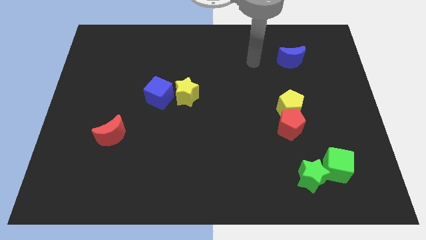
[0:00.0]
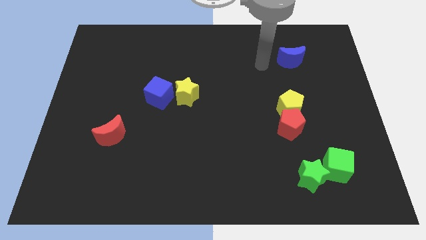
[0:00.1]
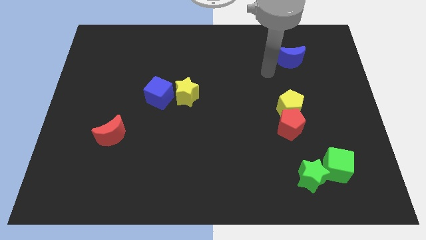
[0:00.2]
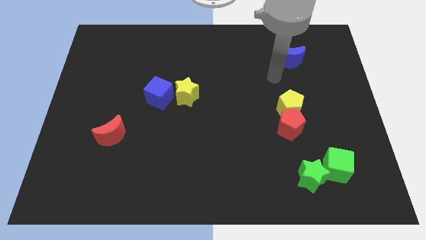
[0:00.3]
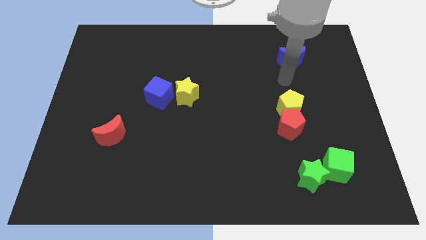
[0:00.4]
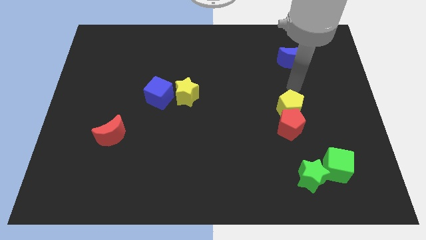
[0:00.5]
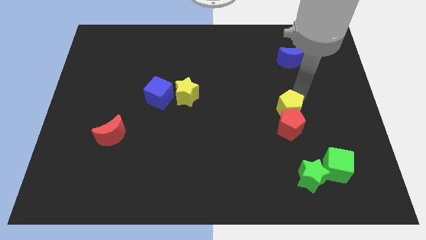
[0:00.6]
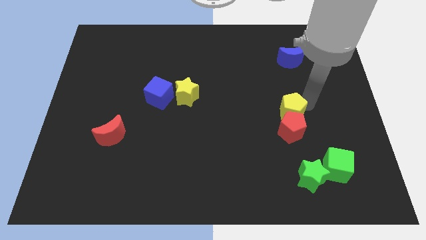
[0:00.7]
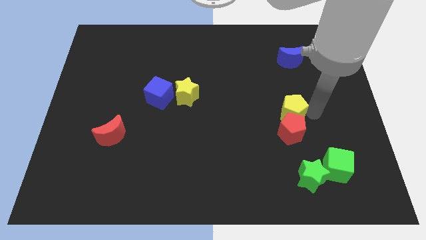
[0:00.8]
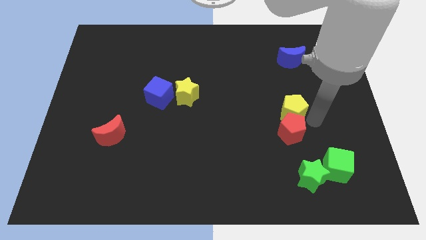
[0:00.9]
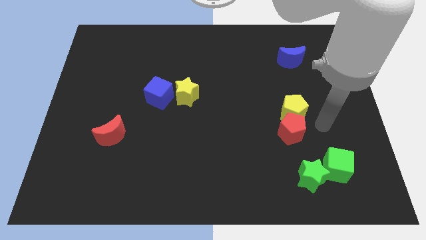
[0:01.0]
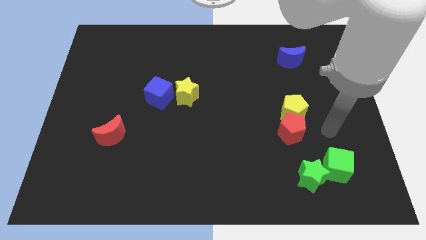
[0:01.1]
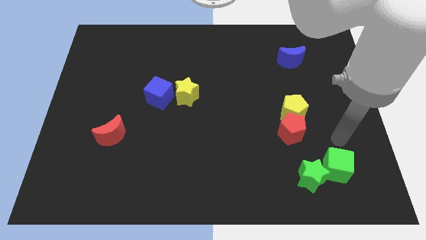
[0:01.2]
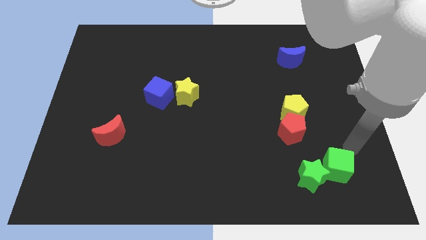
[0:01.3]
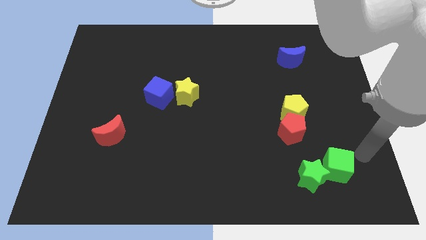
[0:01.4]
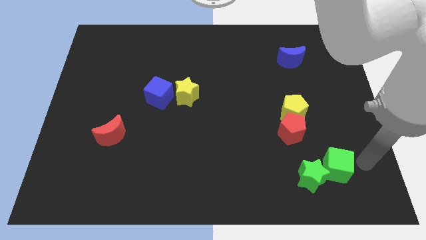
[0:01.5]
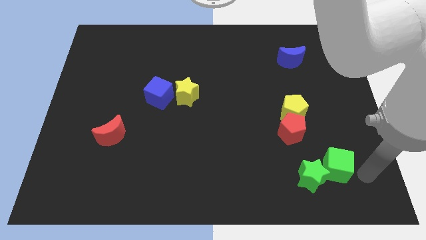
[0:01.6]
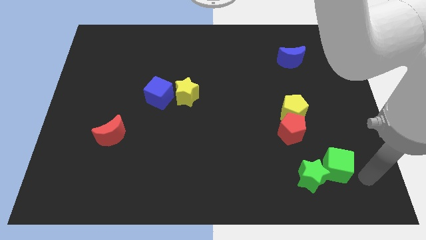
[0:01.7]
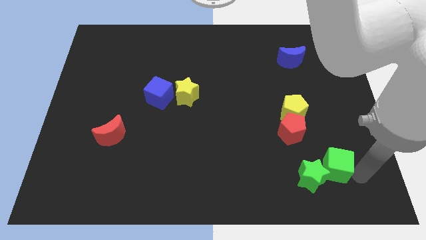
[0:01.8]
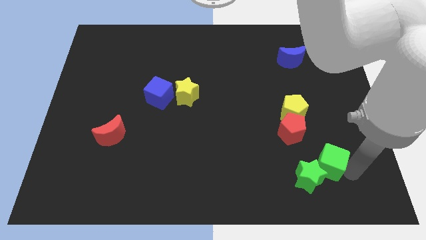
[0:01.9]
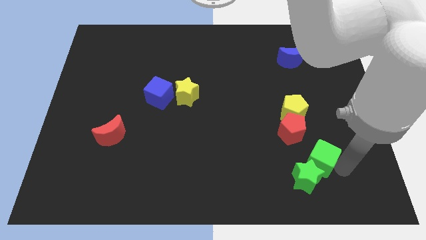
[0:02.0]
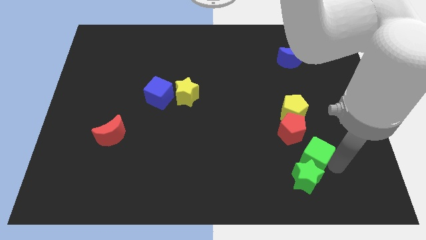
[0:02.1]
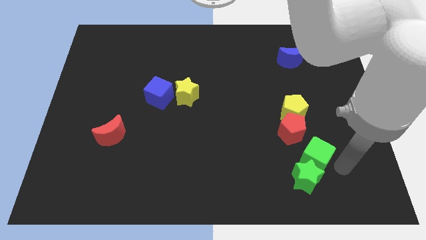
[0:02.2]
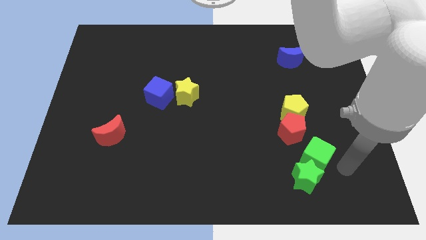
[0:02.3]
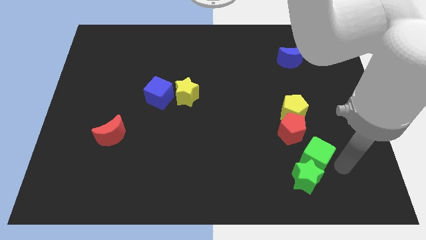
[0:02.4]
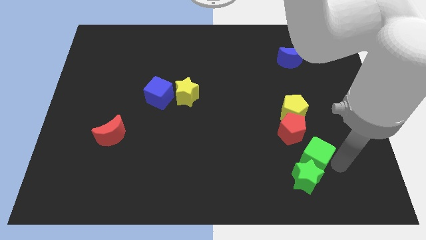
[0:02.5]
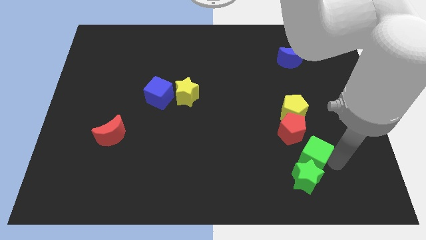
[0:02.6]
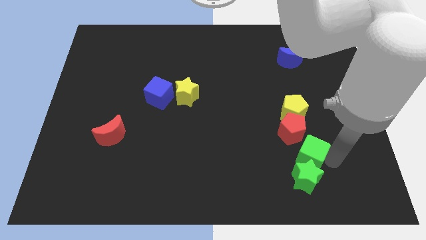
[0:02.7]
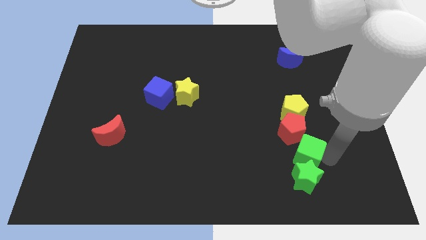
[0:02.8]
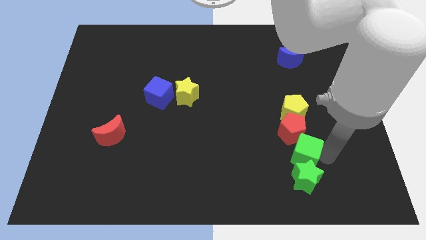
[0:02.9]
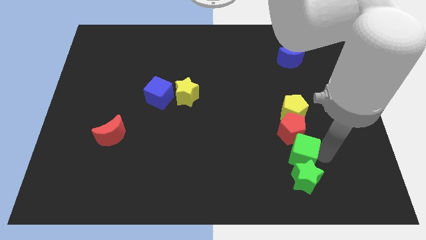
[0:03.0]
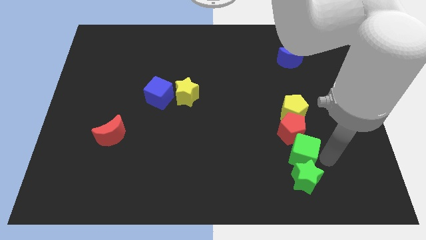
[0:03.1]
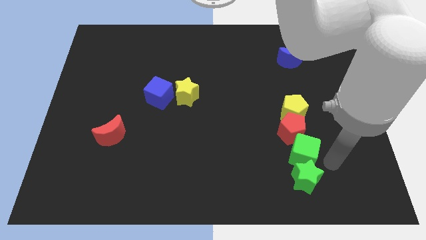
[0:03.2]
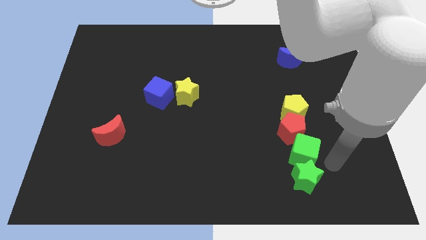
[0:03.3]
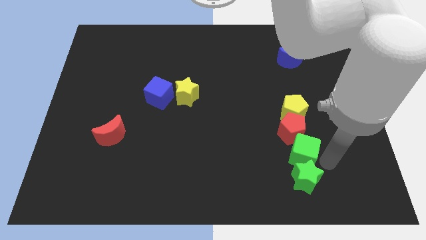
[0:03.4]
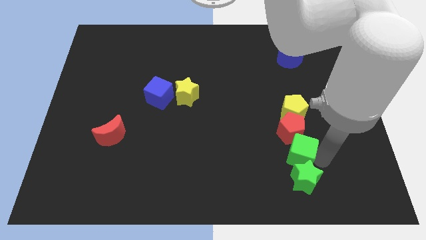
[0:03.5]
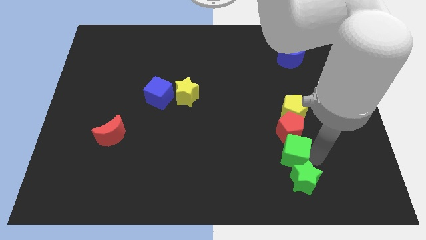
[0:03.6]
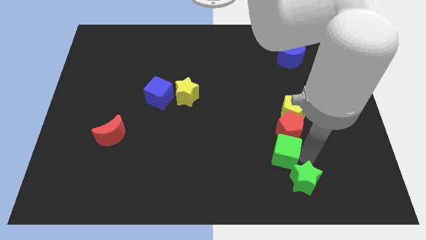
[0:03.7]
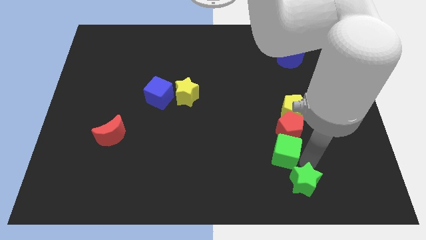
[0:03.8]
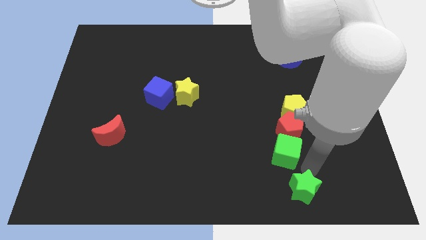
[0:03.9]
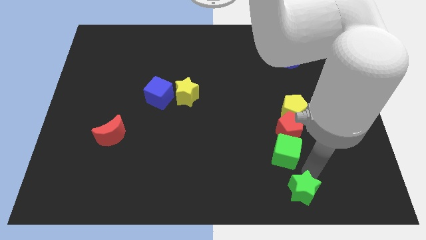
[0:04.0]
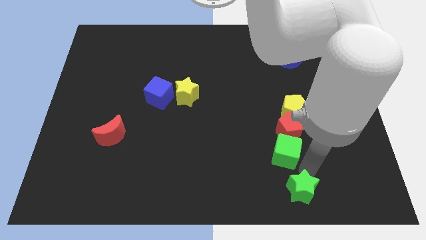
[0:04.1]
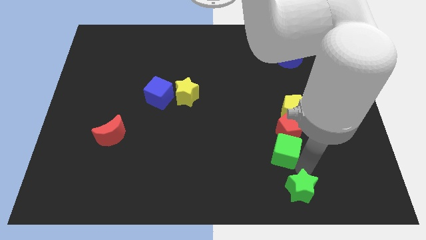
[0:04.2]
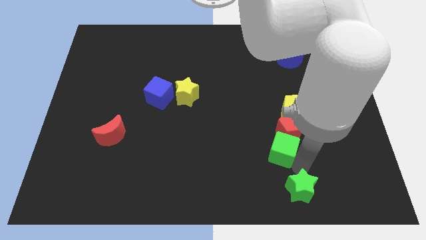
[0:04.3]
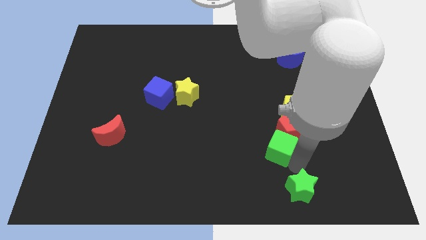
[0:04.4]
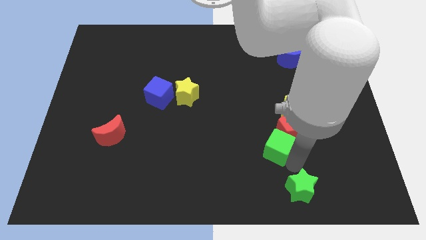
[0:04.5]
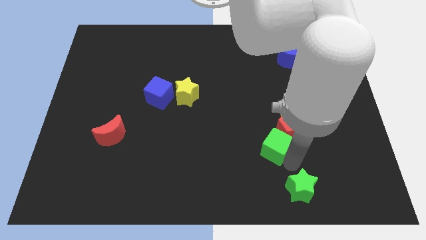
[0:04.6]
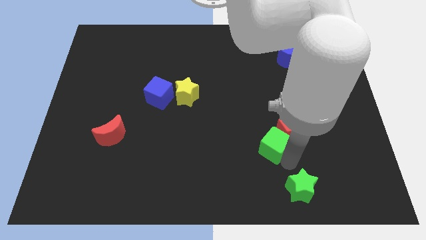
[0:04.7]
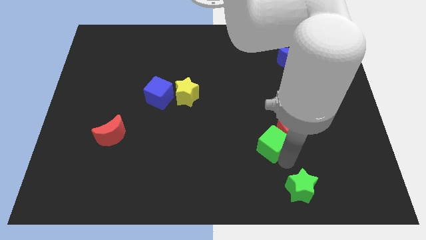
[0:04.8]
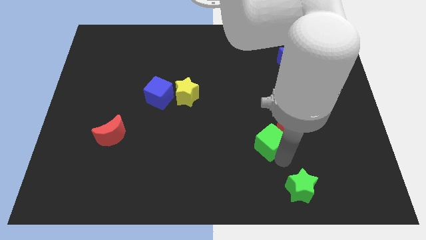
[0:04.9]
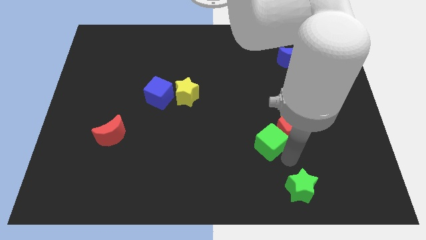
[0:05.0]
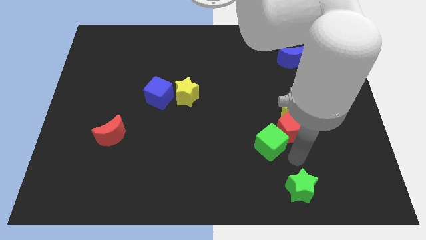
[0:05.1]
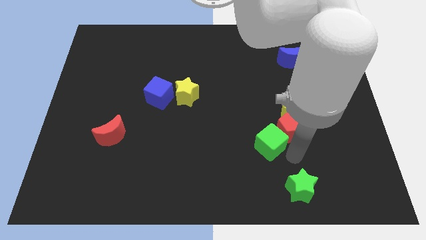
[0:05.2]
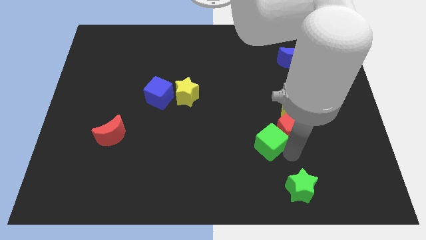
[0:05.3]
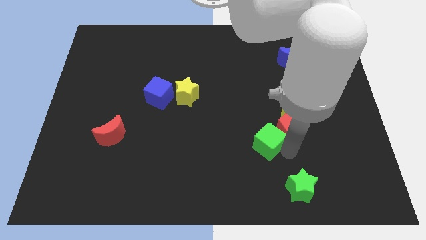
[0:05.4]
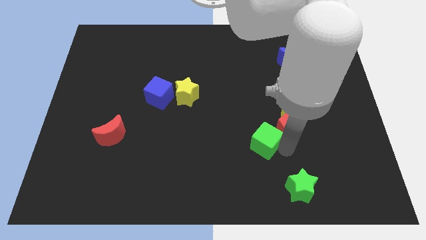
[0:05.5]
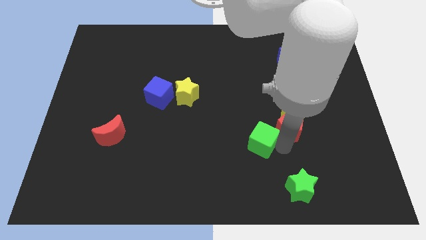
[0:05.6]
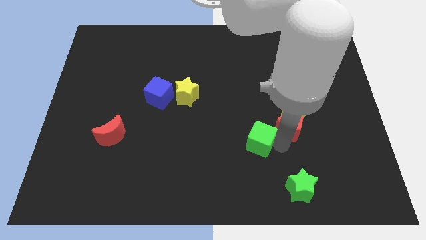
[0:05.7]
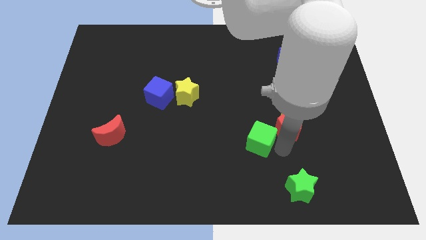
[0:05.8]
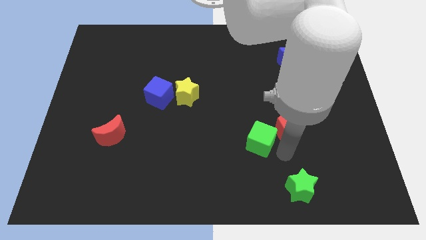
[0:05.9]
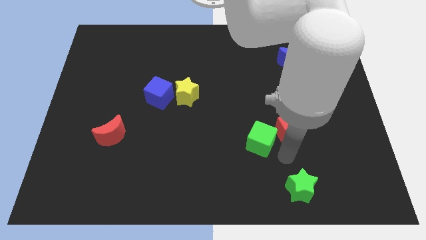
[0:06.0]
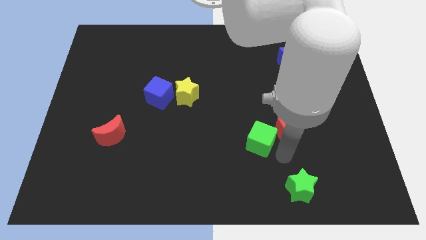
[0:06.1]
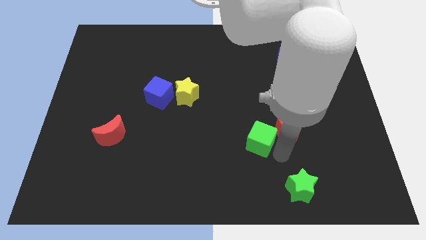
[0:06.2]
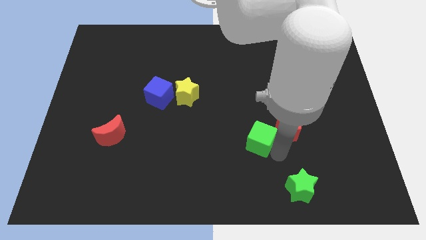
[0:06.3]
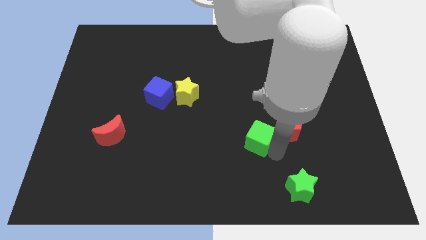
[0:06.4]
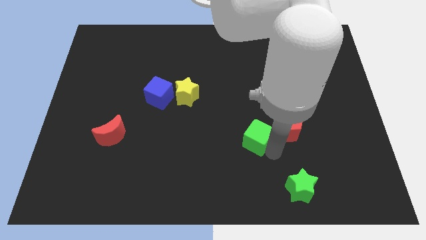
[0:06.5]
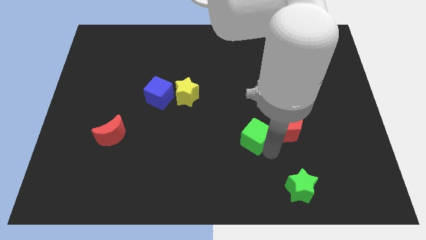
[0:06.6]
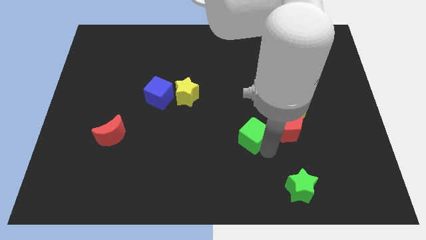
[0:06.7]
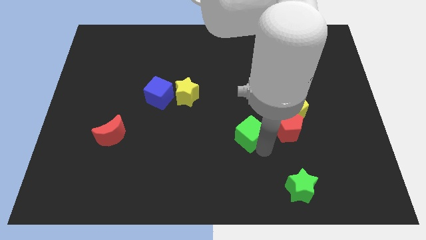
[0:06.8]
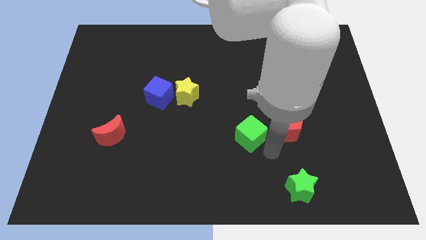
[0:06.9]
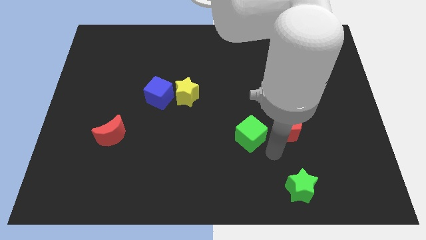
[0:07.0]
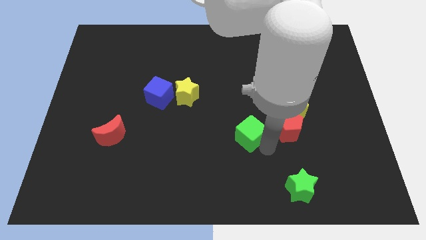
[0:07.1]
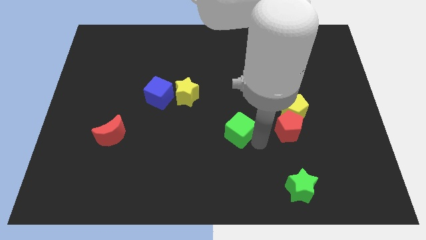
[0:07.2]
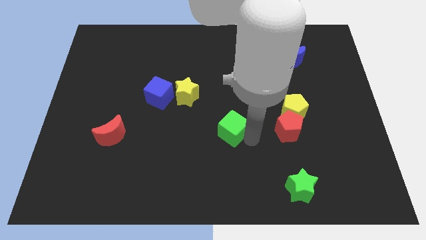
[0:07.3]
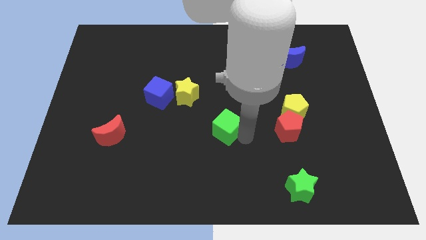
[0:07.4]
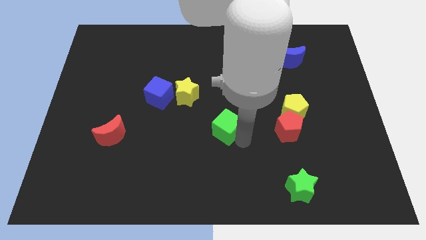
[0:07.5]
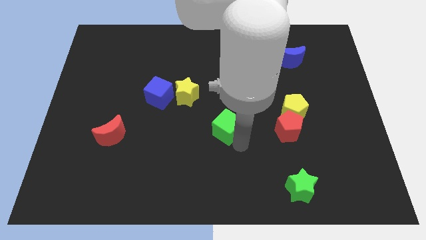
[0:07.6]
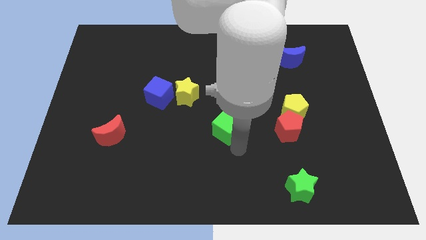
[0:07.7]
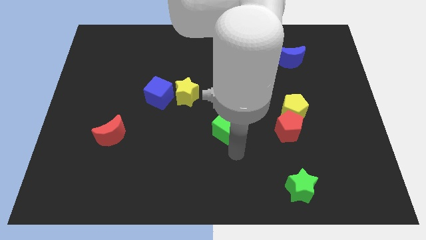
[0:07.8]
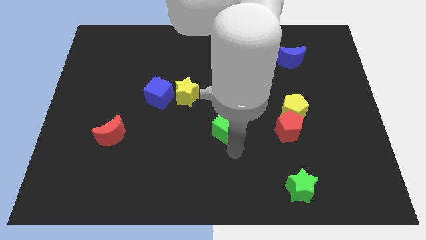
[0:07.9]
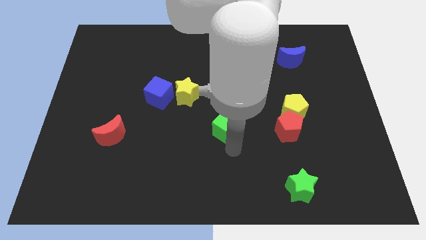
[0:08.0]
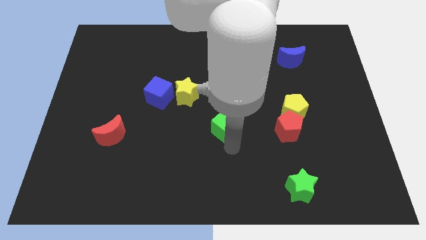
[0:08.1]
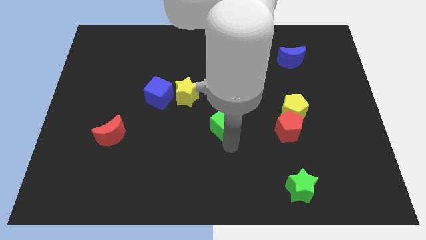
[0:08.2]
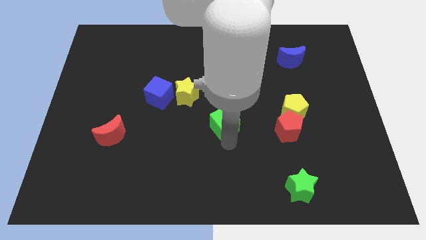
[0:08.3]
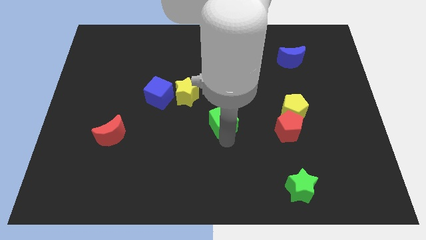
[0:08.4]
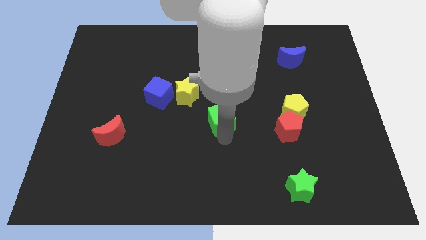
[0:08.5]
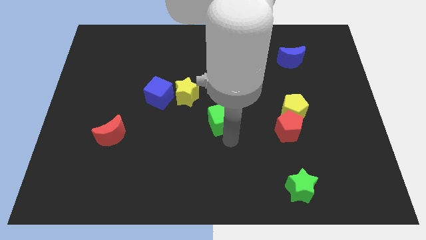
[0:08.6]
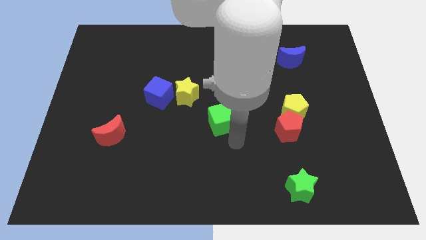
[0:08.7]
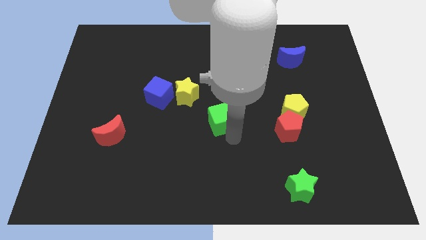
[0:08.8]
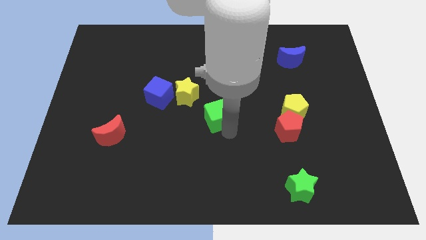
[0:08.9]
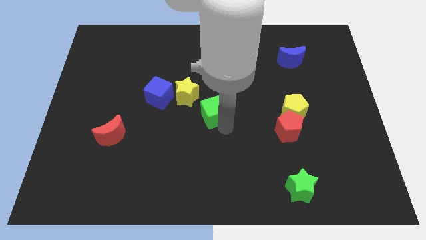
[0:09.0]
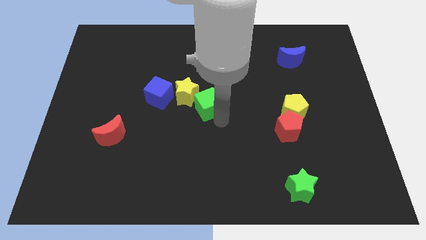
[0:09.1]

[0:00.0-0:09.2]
move the green cube next to the yellow star
